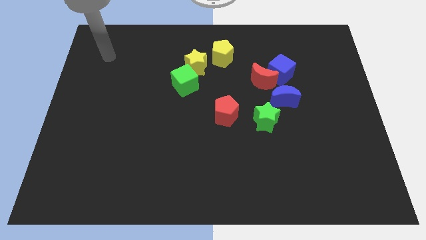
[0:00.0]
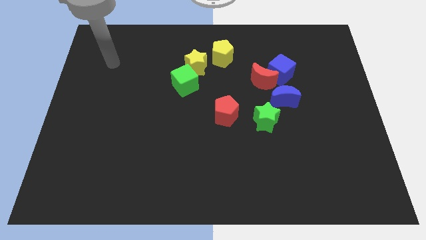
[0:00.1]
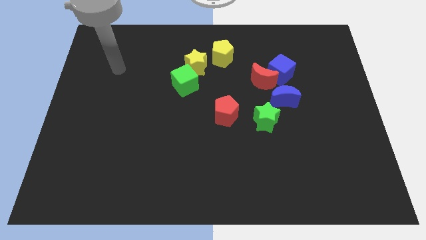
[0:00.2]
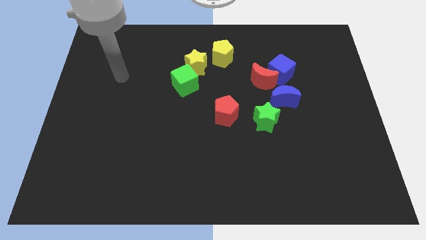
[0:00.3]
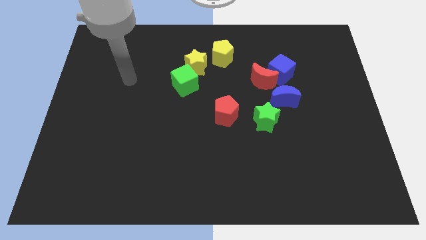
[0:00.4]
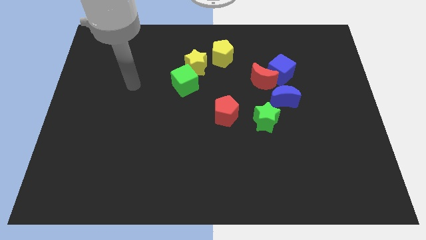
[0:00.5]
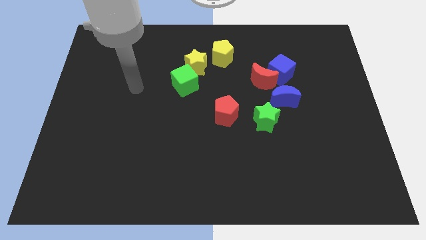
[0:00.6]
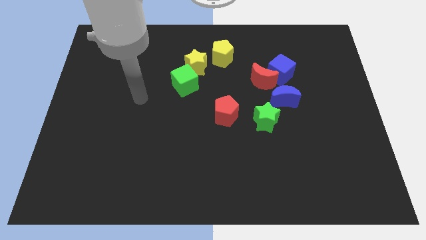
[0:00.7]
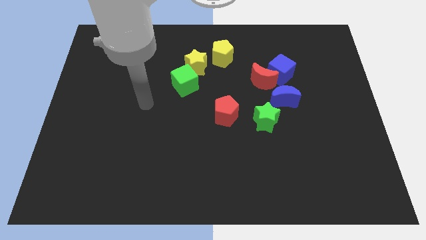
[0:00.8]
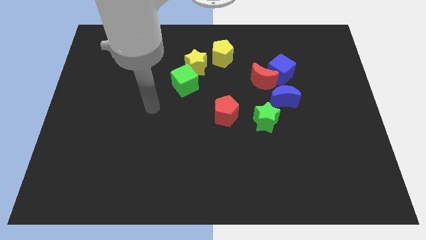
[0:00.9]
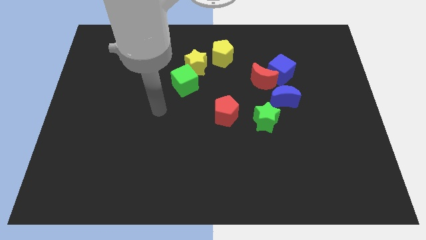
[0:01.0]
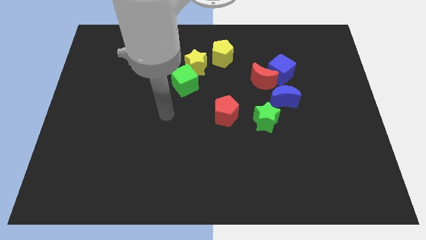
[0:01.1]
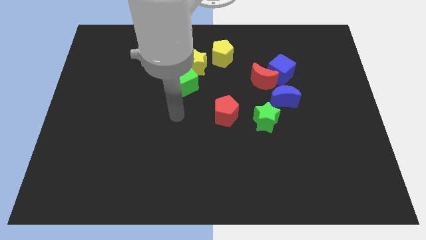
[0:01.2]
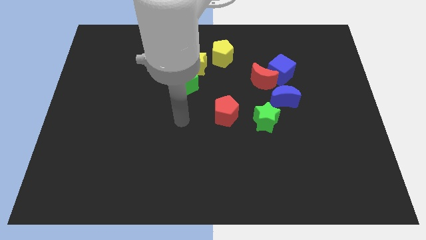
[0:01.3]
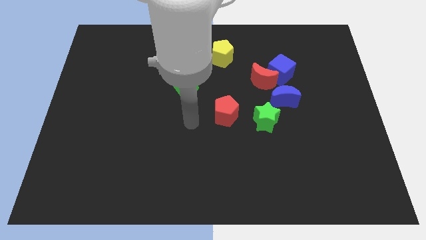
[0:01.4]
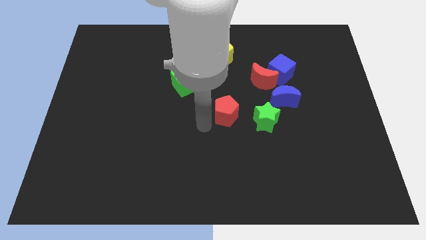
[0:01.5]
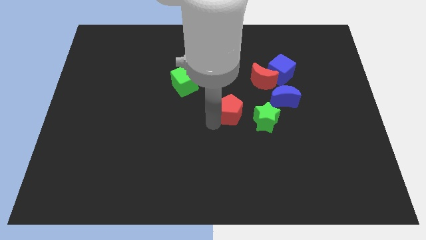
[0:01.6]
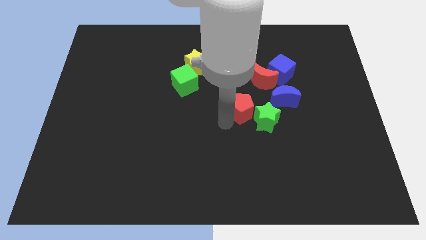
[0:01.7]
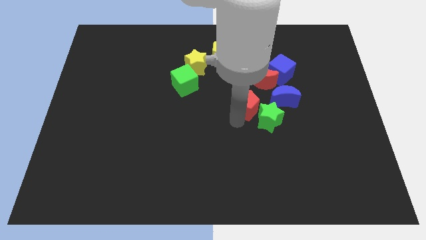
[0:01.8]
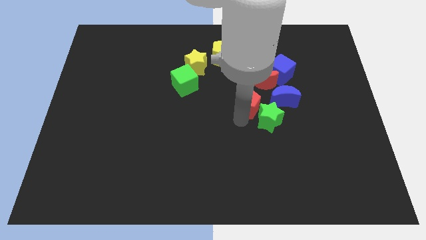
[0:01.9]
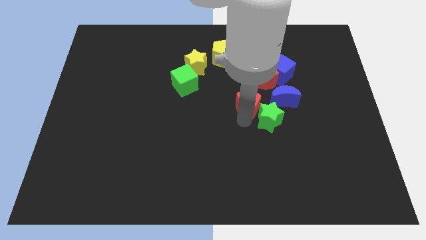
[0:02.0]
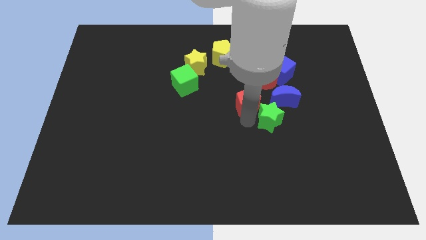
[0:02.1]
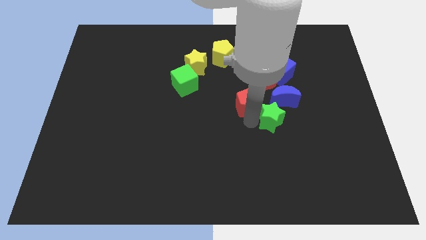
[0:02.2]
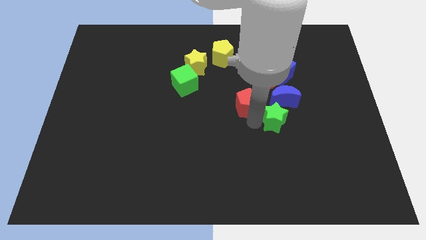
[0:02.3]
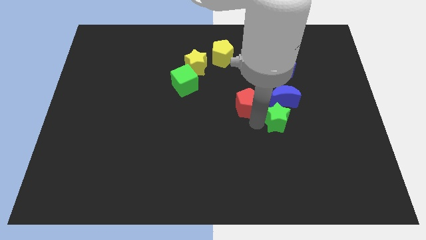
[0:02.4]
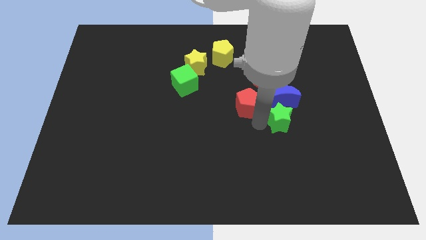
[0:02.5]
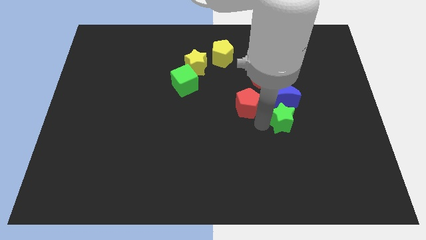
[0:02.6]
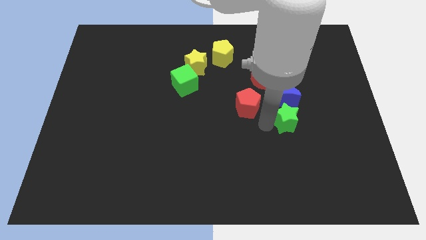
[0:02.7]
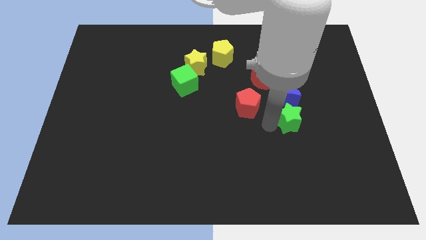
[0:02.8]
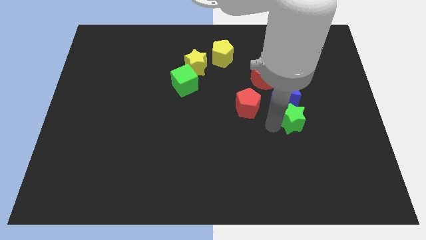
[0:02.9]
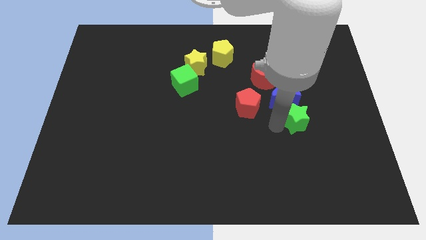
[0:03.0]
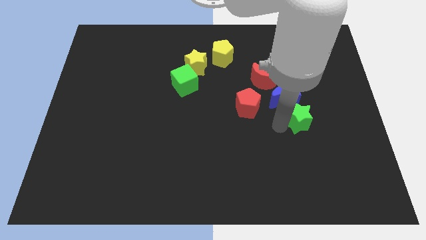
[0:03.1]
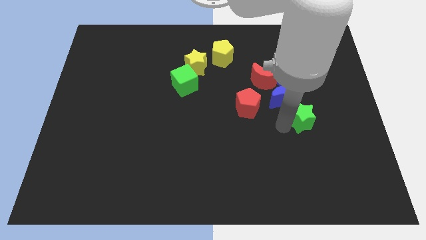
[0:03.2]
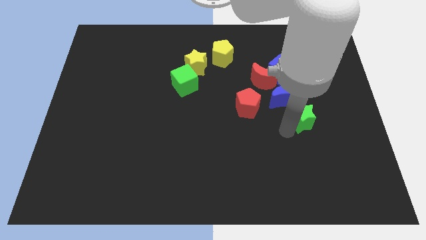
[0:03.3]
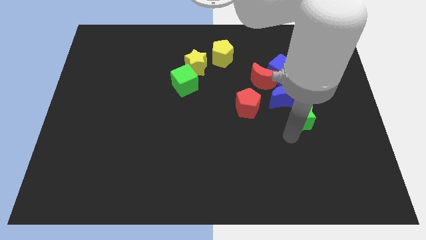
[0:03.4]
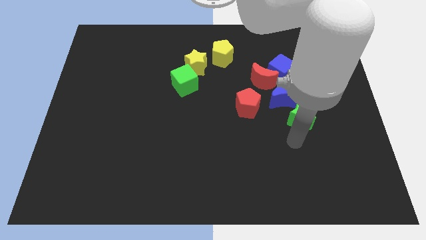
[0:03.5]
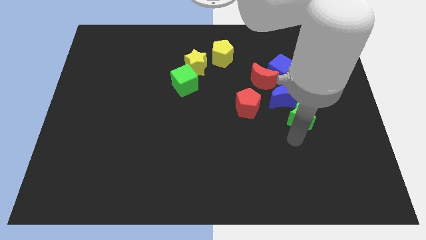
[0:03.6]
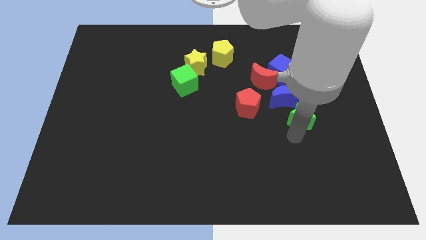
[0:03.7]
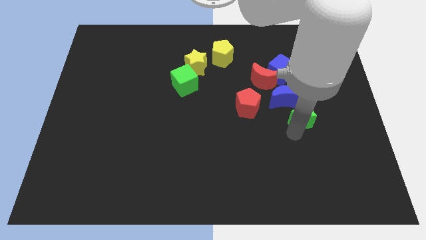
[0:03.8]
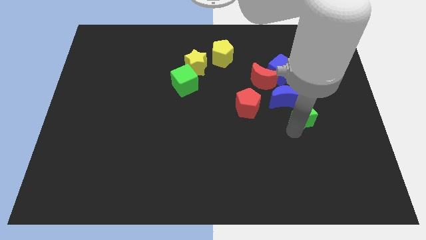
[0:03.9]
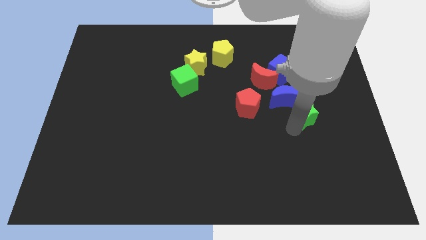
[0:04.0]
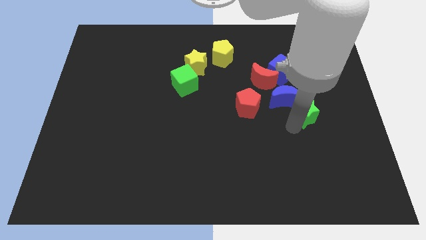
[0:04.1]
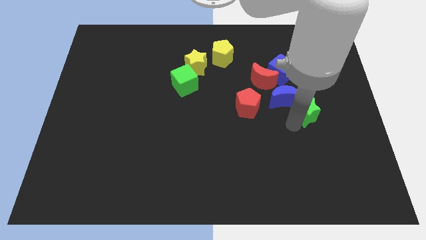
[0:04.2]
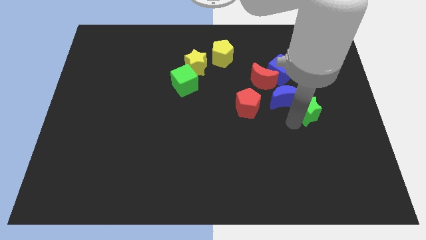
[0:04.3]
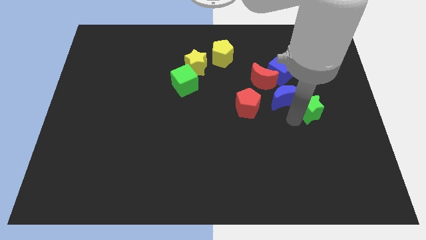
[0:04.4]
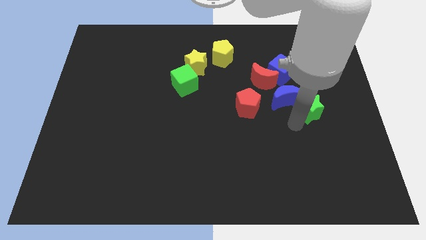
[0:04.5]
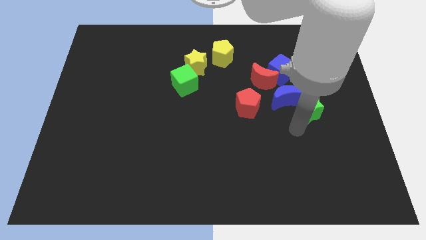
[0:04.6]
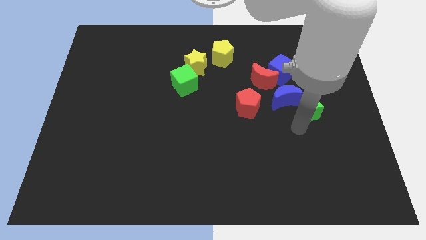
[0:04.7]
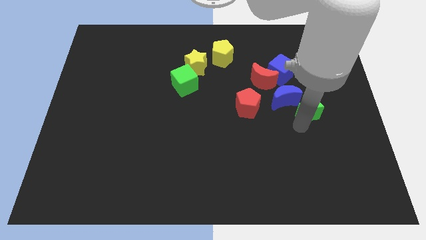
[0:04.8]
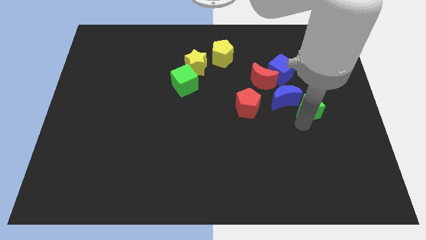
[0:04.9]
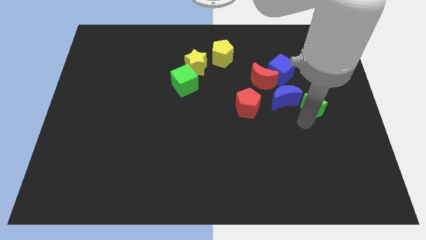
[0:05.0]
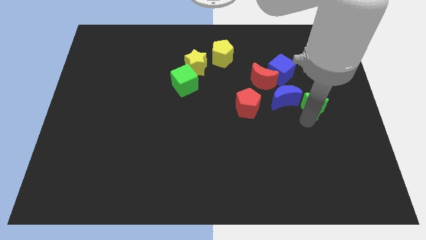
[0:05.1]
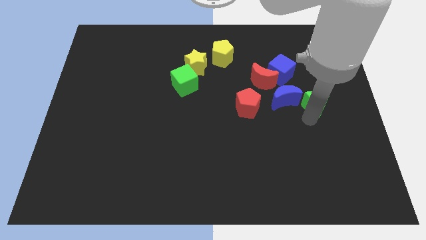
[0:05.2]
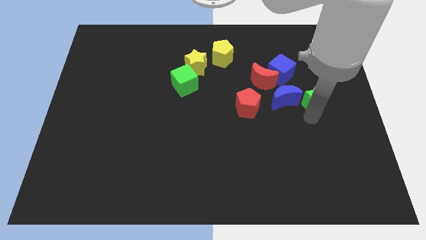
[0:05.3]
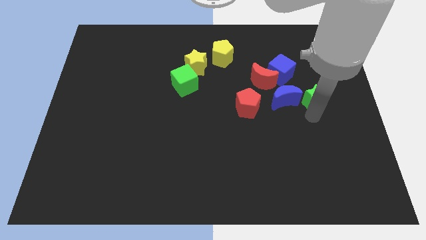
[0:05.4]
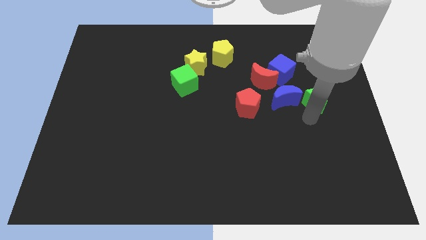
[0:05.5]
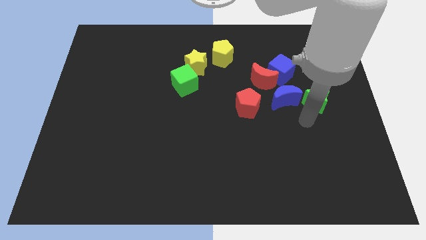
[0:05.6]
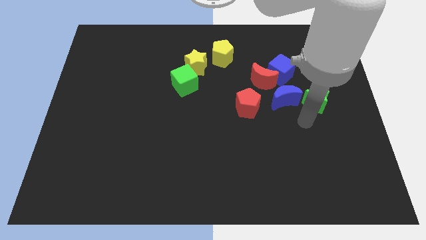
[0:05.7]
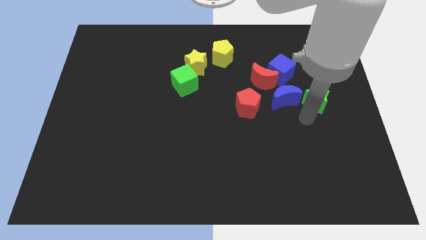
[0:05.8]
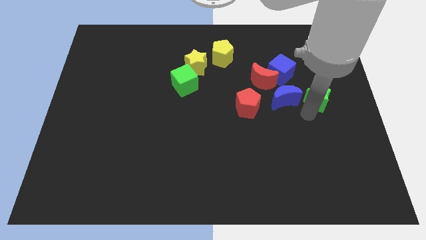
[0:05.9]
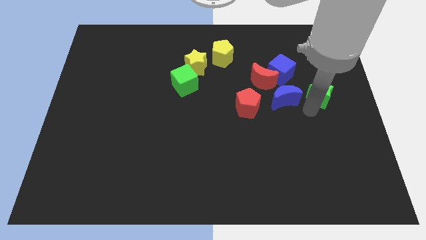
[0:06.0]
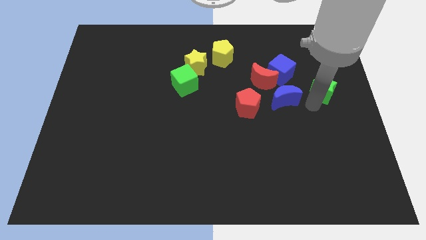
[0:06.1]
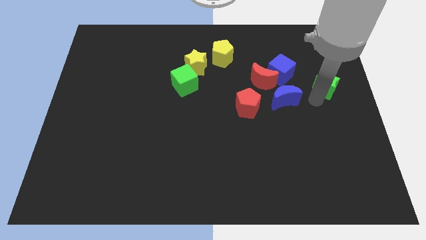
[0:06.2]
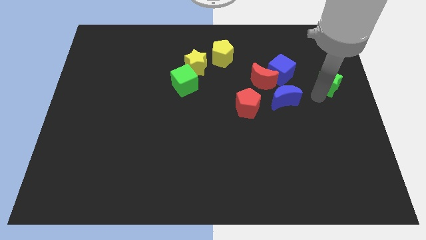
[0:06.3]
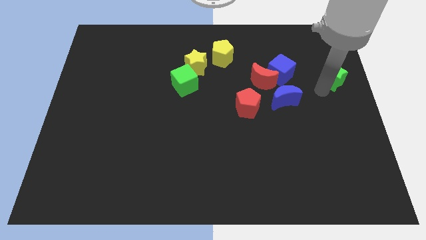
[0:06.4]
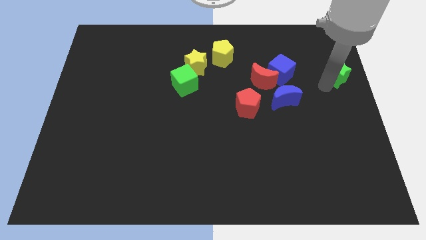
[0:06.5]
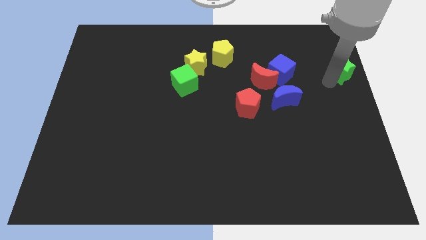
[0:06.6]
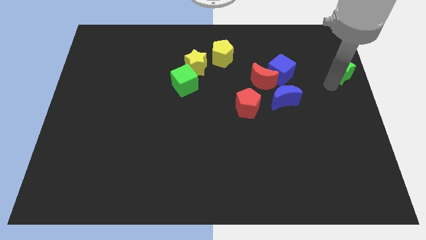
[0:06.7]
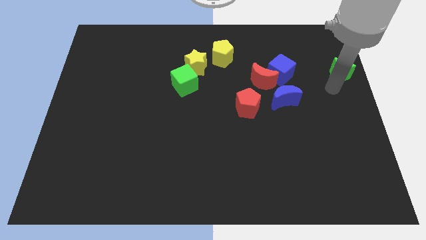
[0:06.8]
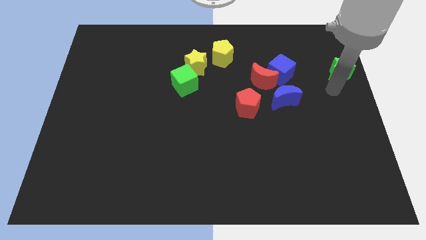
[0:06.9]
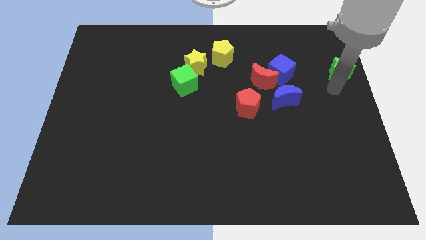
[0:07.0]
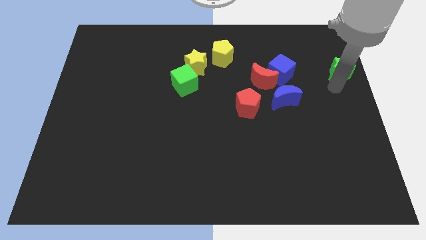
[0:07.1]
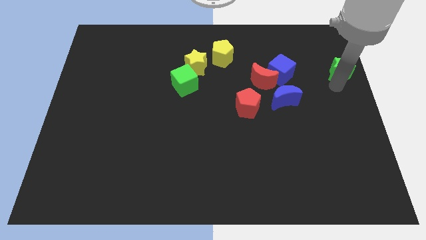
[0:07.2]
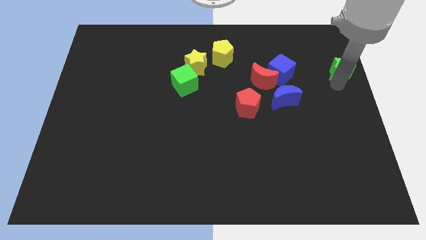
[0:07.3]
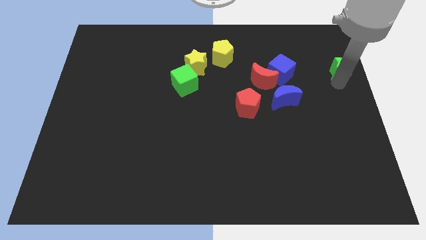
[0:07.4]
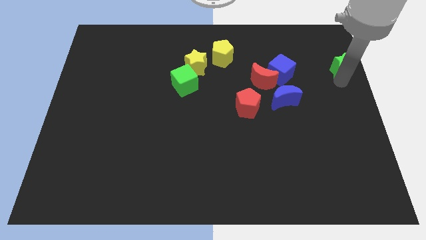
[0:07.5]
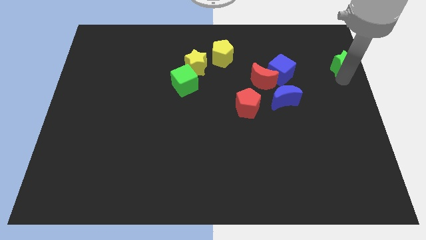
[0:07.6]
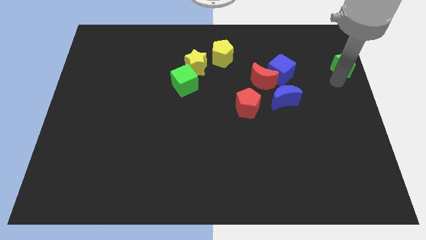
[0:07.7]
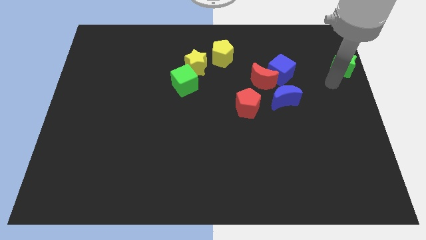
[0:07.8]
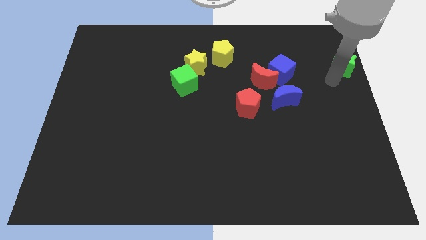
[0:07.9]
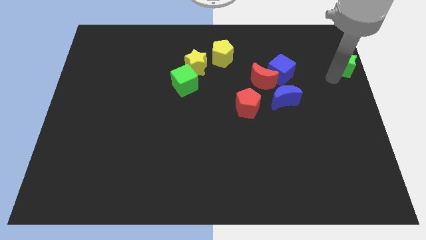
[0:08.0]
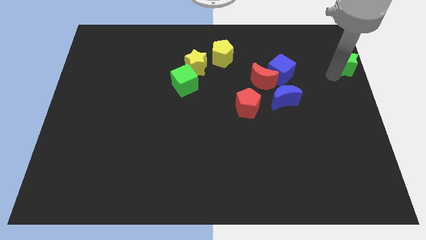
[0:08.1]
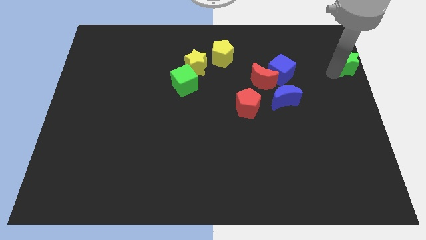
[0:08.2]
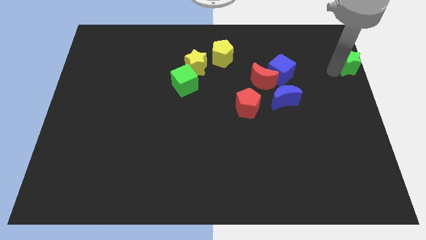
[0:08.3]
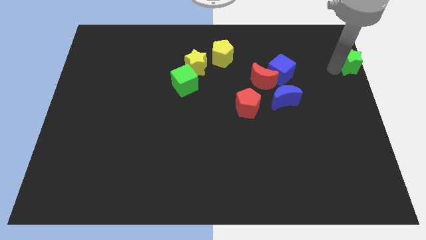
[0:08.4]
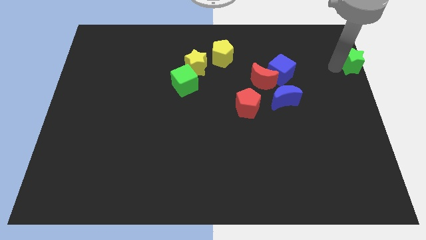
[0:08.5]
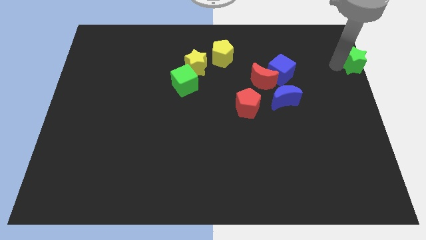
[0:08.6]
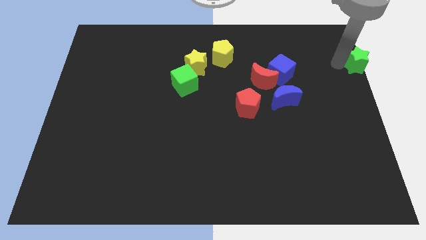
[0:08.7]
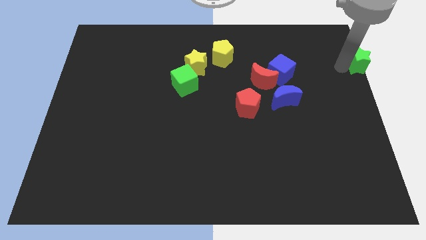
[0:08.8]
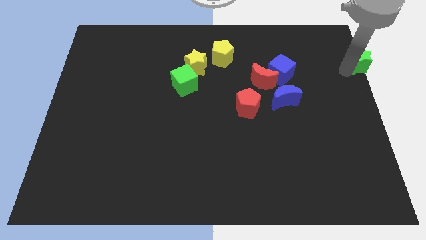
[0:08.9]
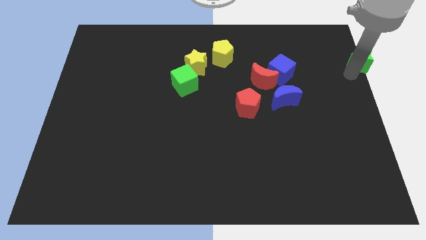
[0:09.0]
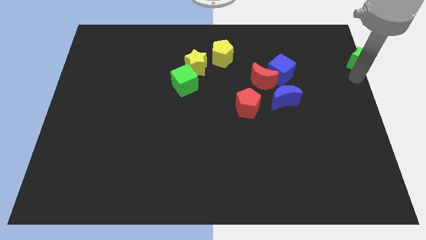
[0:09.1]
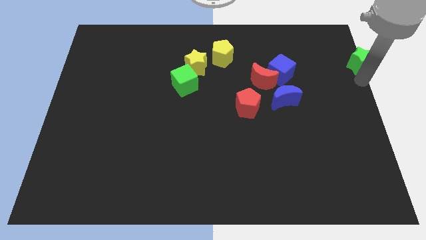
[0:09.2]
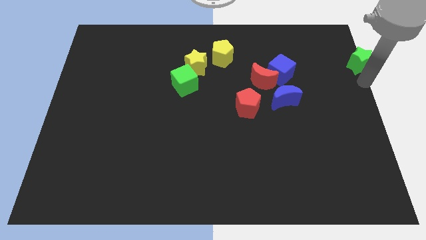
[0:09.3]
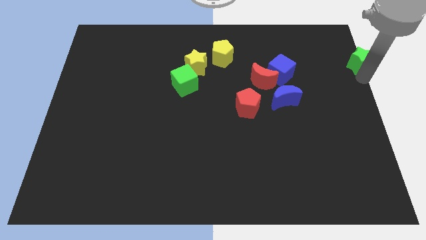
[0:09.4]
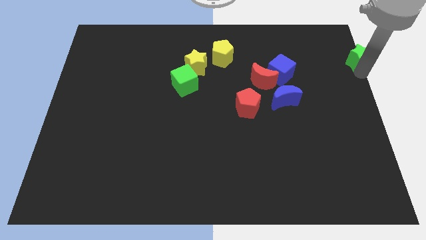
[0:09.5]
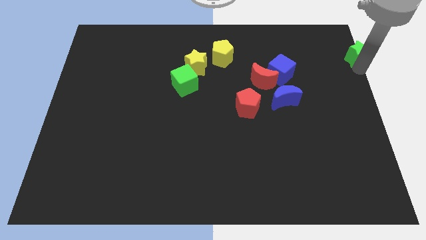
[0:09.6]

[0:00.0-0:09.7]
put the green star to the upper right corner
